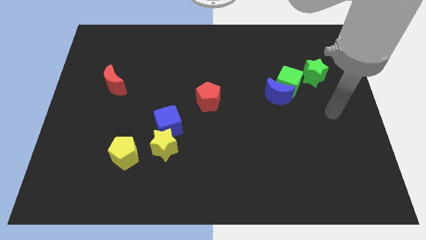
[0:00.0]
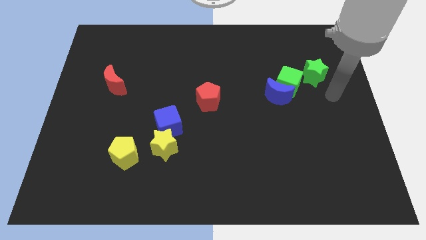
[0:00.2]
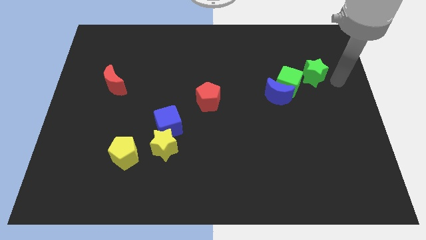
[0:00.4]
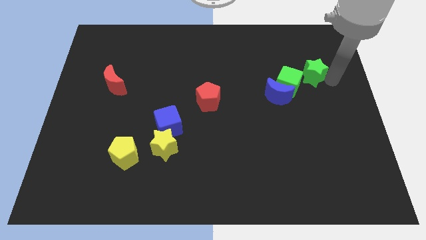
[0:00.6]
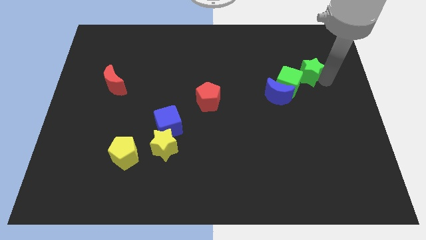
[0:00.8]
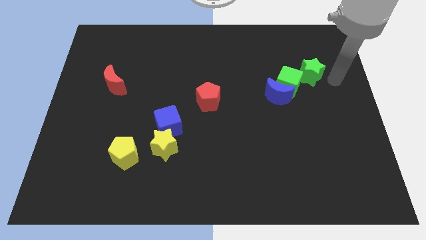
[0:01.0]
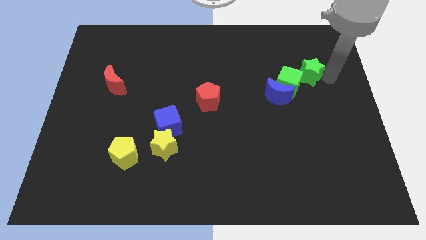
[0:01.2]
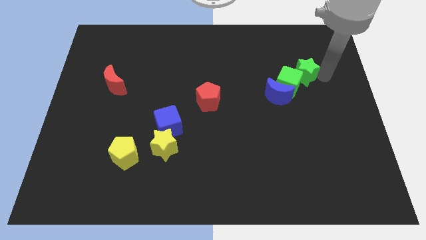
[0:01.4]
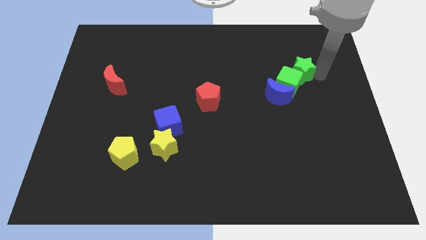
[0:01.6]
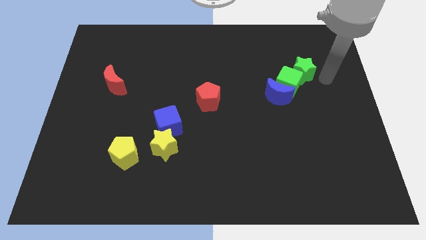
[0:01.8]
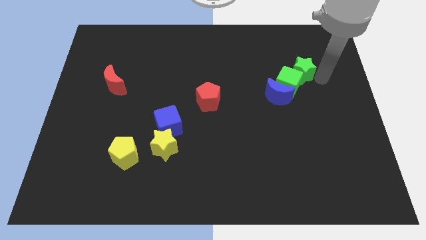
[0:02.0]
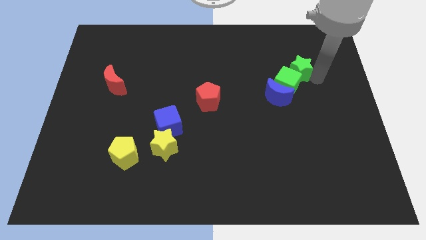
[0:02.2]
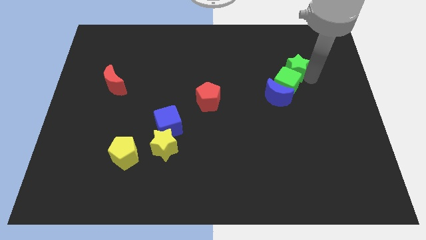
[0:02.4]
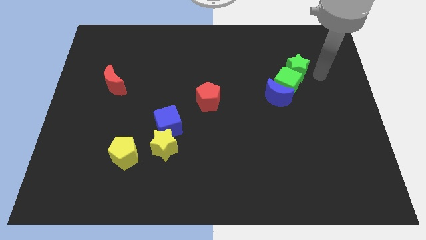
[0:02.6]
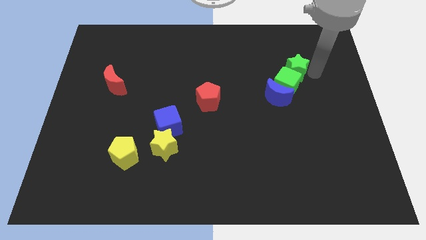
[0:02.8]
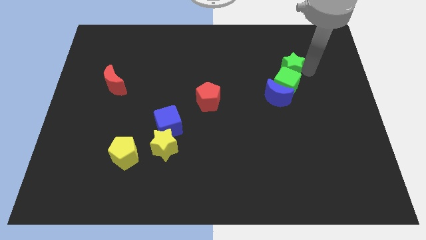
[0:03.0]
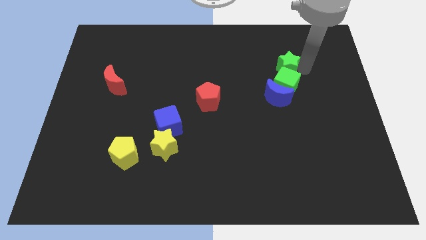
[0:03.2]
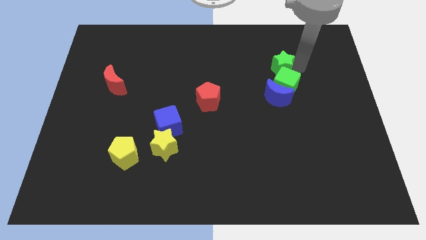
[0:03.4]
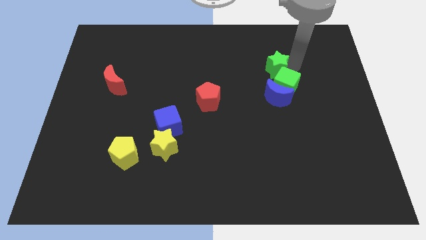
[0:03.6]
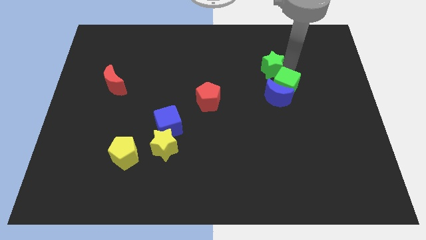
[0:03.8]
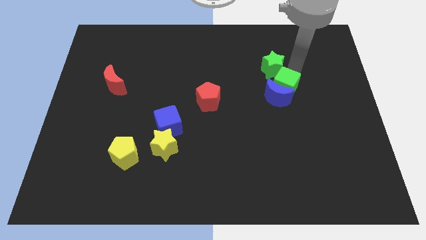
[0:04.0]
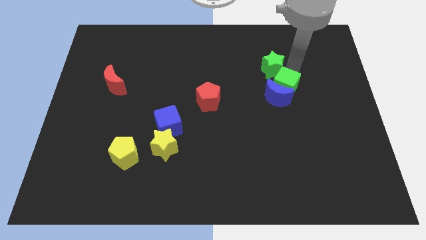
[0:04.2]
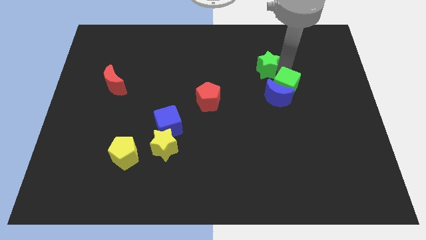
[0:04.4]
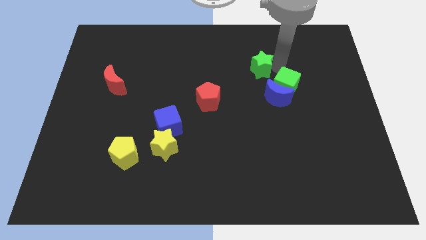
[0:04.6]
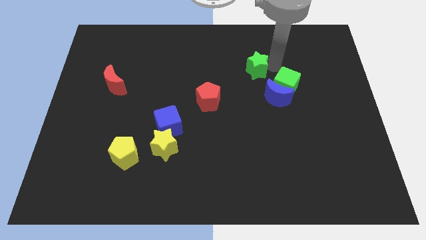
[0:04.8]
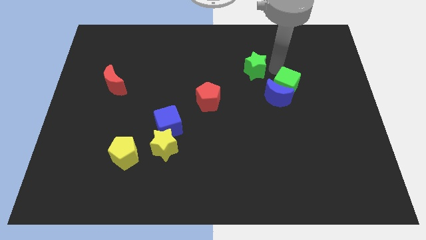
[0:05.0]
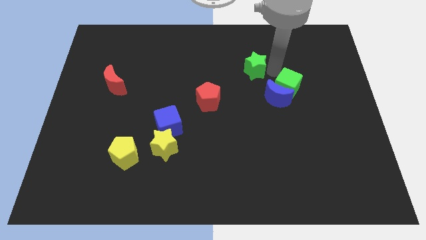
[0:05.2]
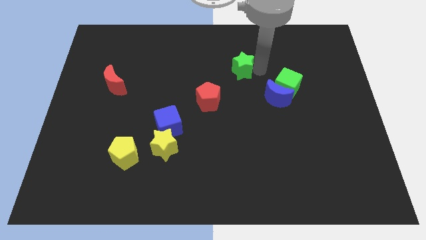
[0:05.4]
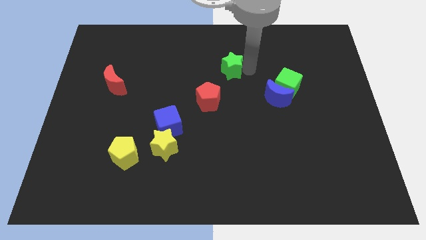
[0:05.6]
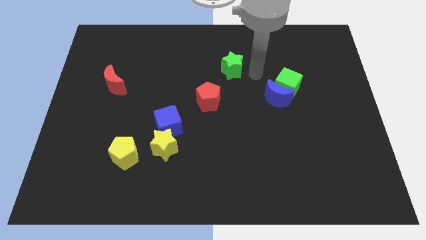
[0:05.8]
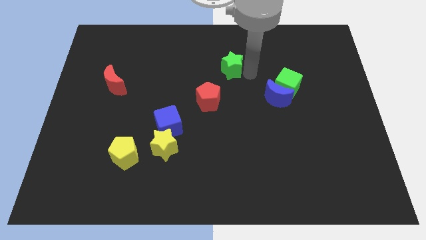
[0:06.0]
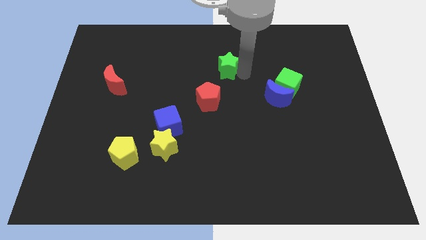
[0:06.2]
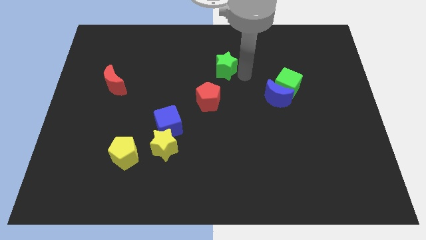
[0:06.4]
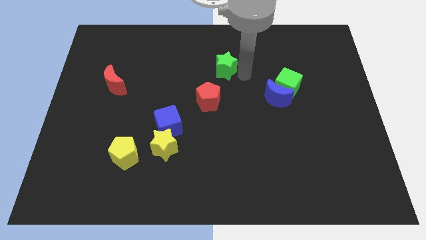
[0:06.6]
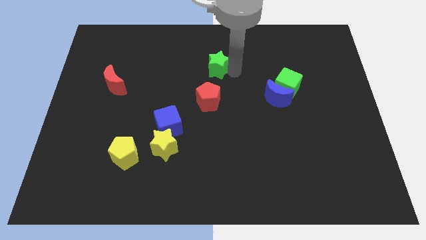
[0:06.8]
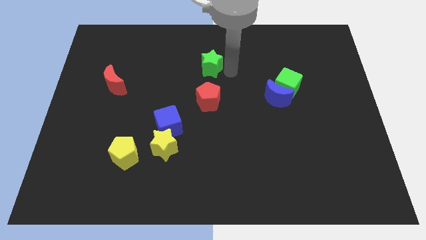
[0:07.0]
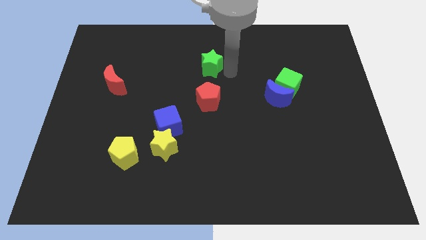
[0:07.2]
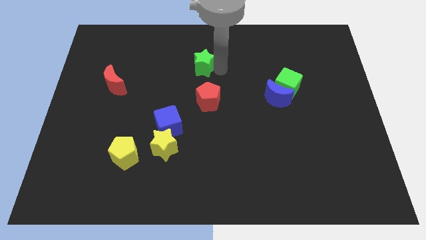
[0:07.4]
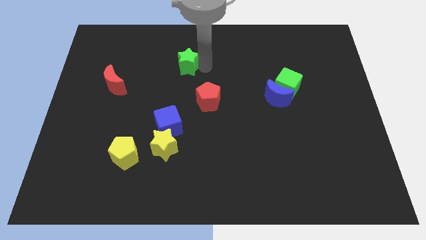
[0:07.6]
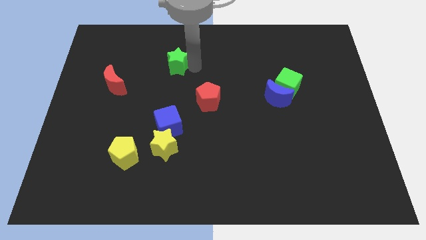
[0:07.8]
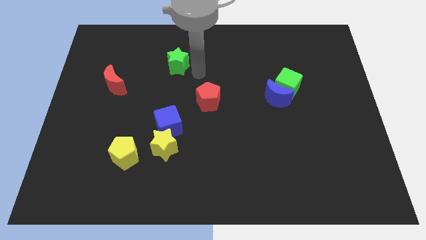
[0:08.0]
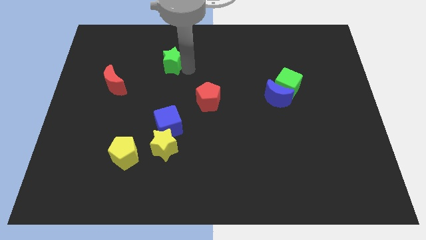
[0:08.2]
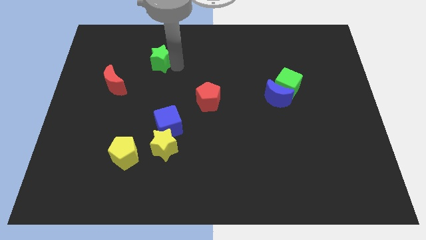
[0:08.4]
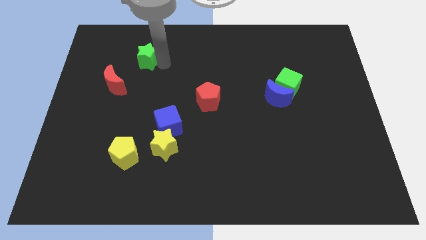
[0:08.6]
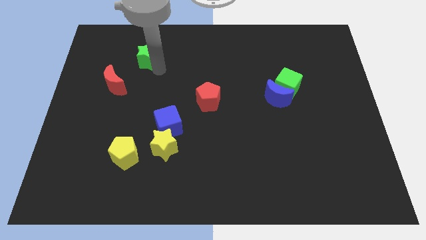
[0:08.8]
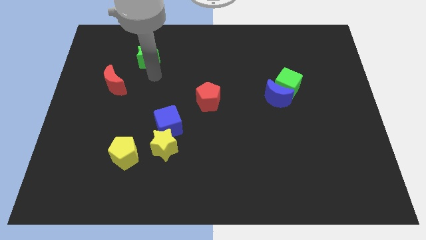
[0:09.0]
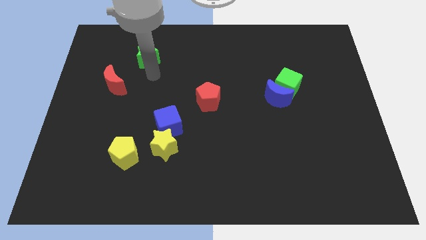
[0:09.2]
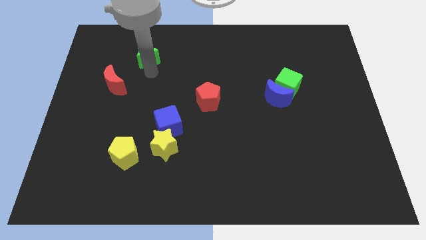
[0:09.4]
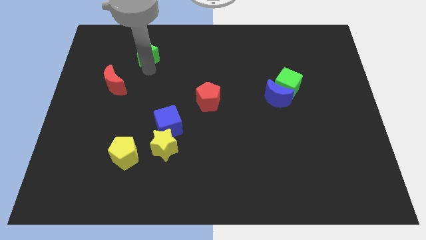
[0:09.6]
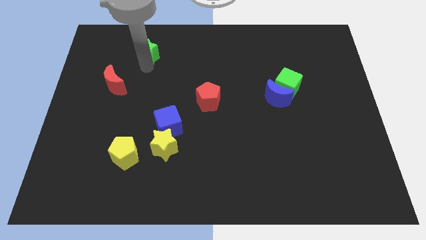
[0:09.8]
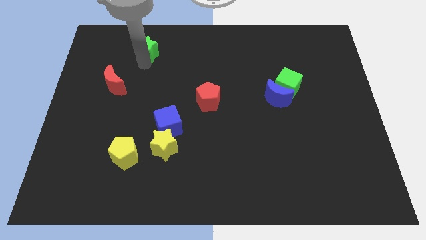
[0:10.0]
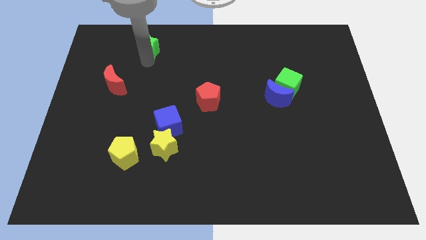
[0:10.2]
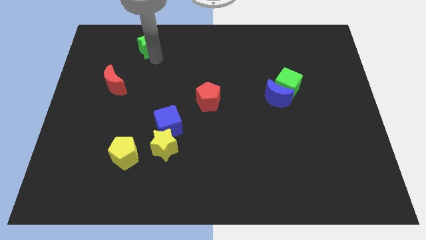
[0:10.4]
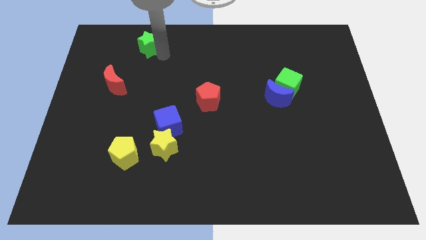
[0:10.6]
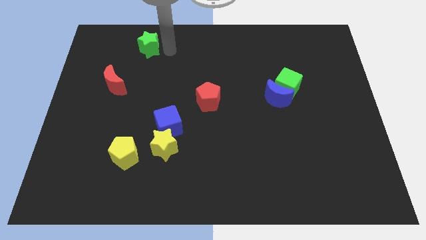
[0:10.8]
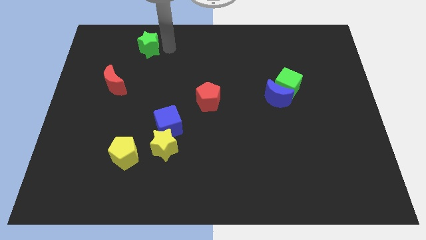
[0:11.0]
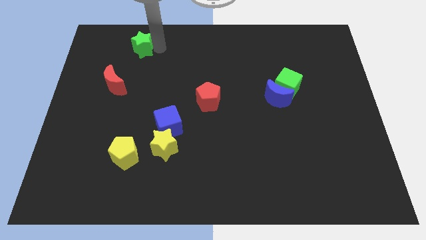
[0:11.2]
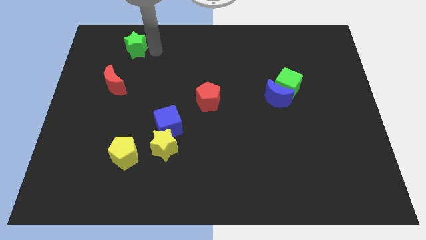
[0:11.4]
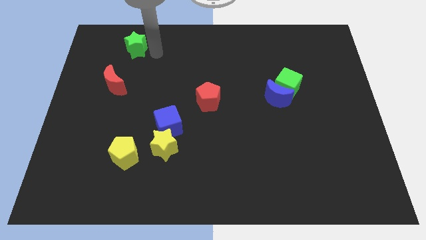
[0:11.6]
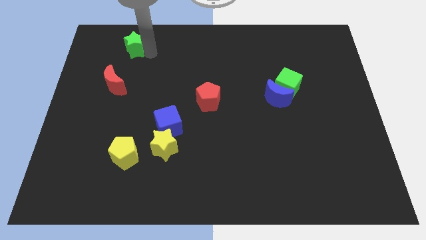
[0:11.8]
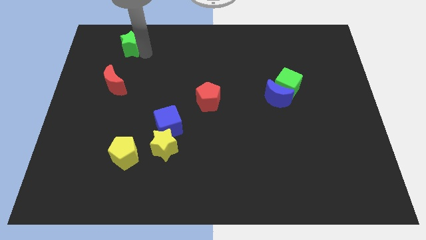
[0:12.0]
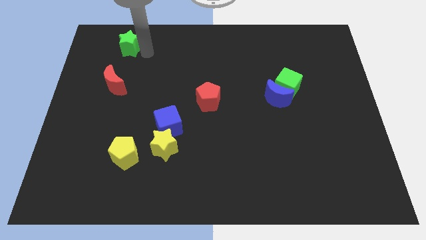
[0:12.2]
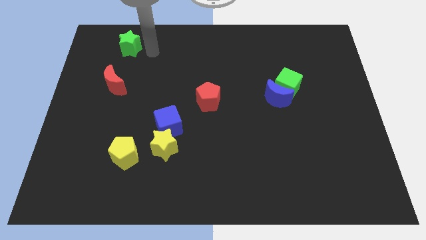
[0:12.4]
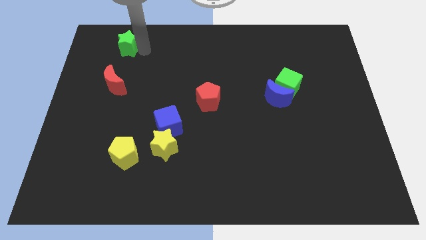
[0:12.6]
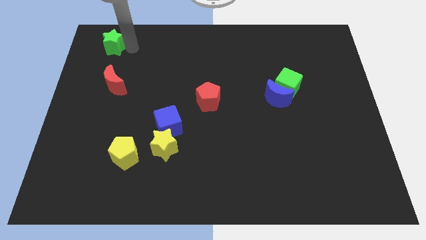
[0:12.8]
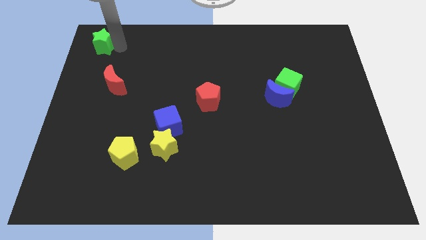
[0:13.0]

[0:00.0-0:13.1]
move the green star to the top left corner
